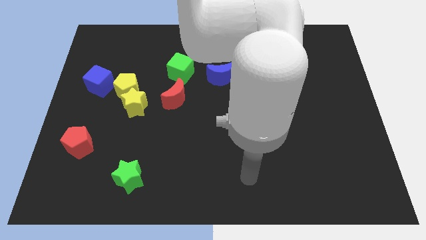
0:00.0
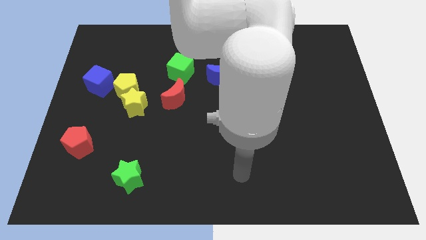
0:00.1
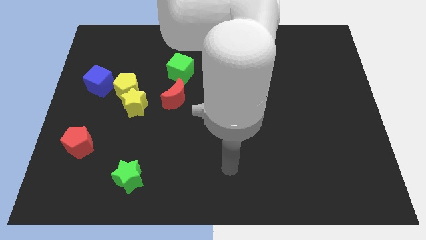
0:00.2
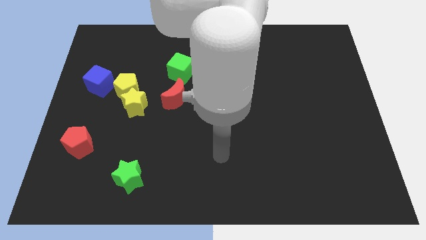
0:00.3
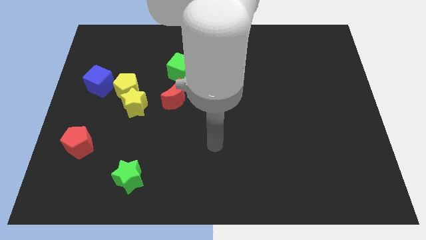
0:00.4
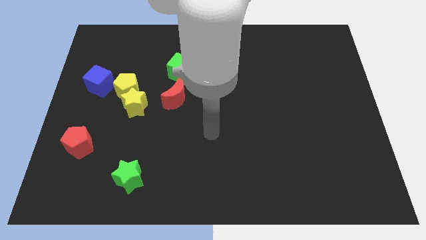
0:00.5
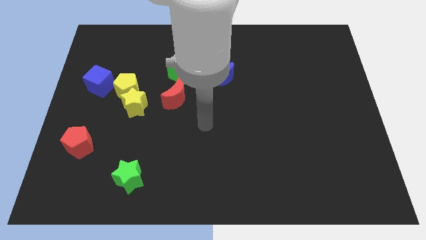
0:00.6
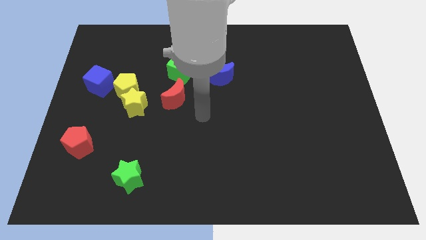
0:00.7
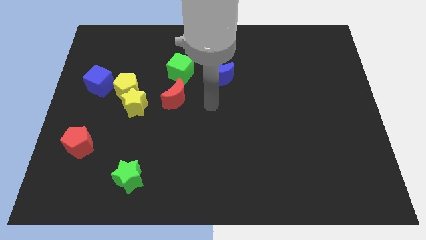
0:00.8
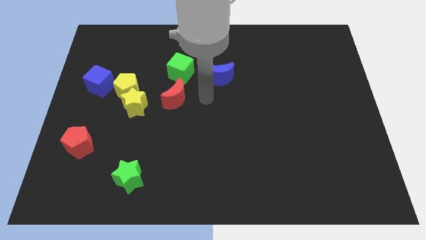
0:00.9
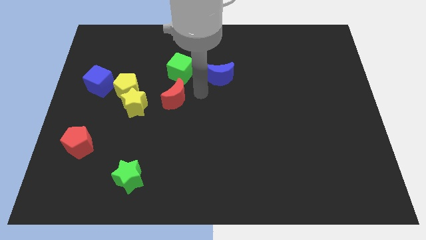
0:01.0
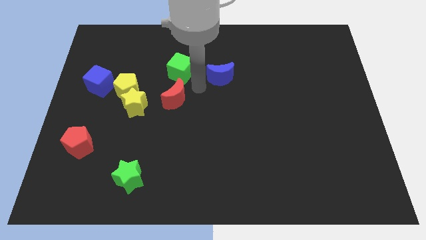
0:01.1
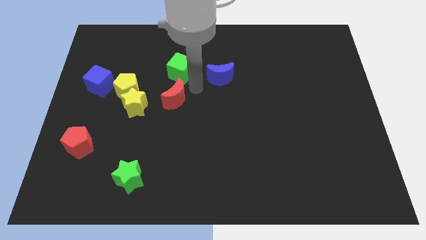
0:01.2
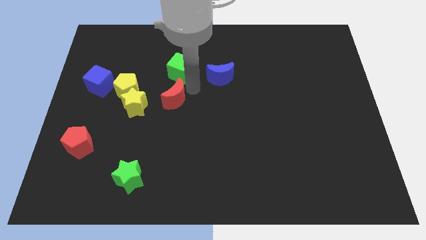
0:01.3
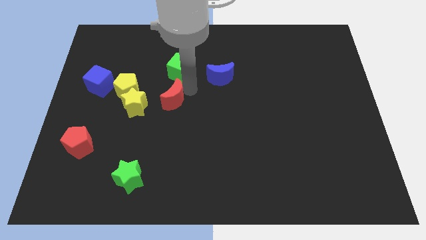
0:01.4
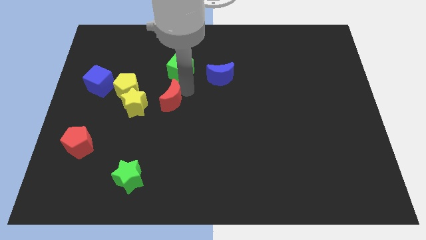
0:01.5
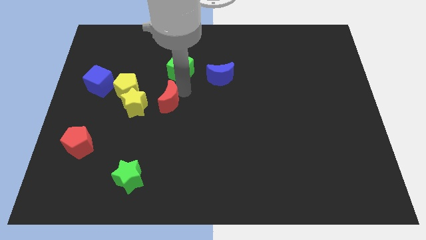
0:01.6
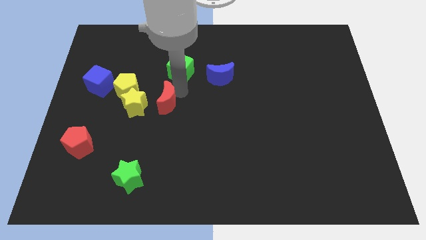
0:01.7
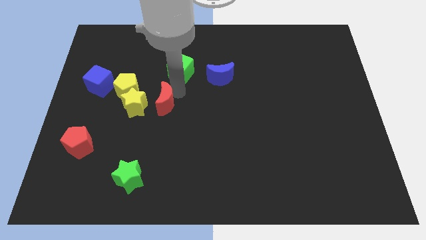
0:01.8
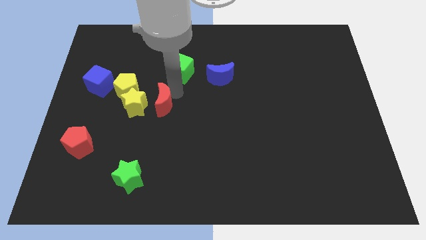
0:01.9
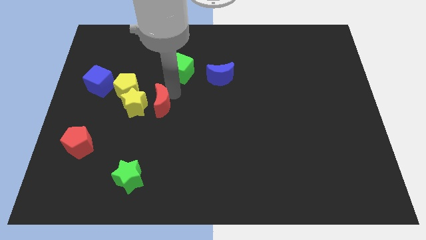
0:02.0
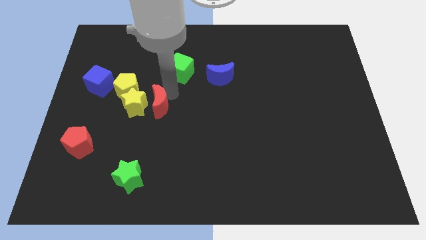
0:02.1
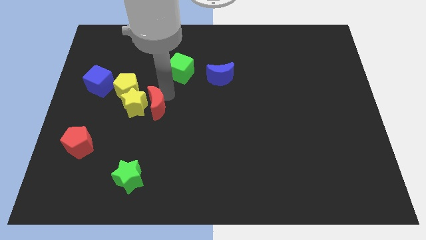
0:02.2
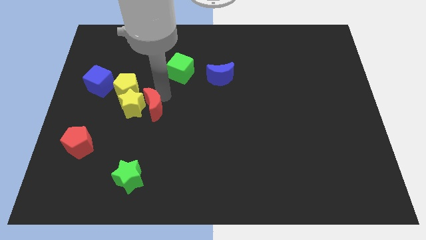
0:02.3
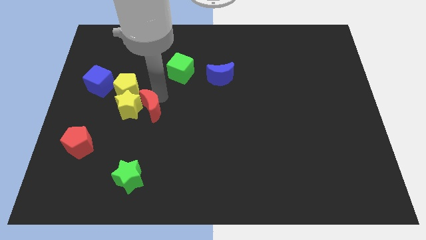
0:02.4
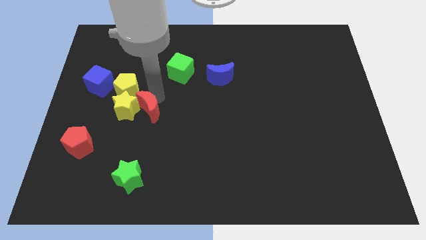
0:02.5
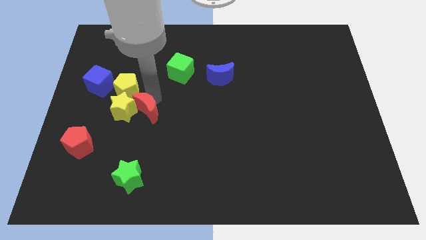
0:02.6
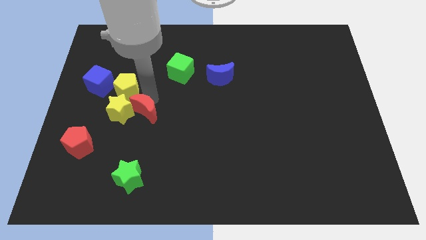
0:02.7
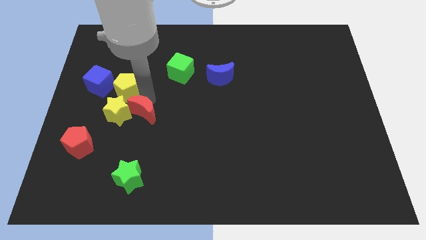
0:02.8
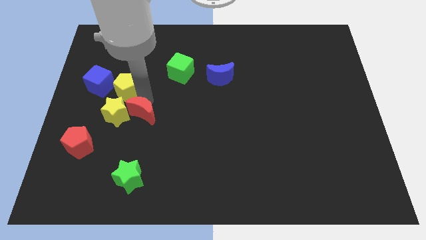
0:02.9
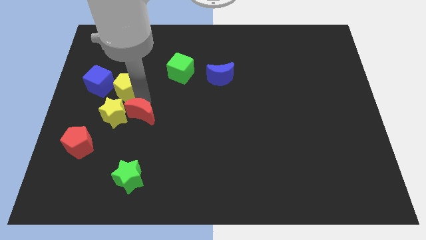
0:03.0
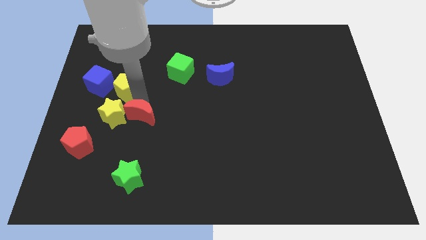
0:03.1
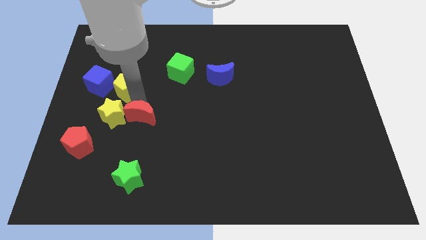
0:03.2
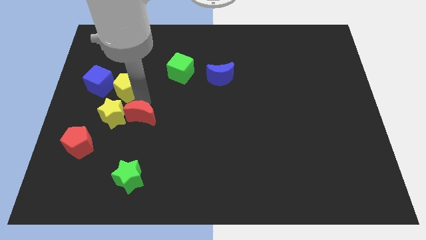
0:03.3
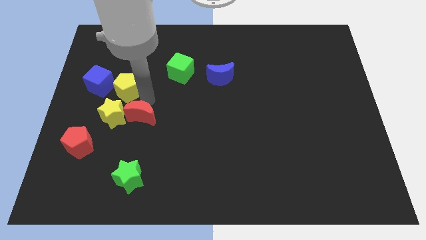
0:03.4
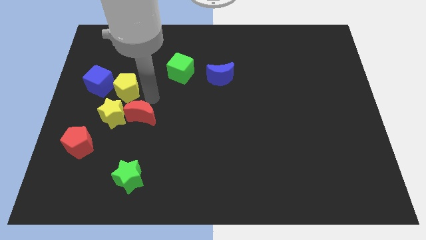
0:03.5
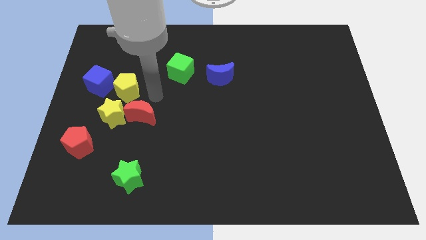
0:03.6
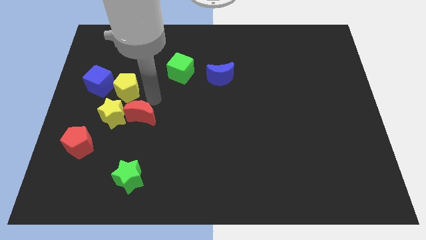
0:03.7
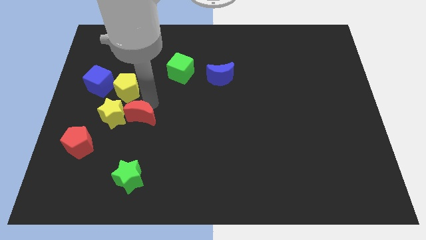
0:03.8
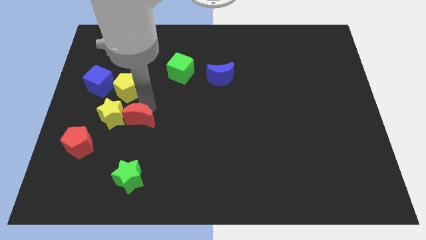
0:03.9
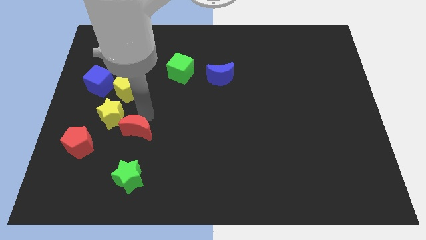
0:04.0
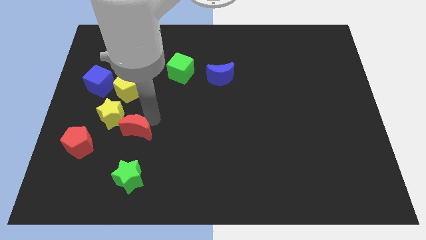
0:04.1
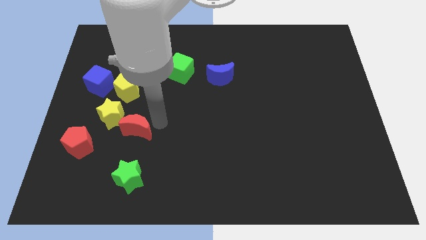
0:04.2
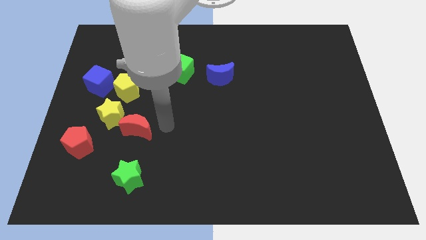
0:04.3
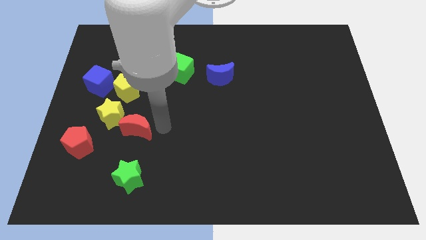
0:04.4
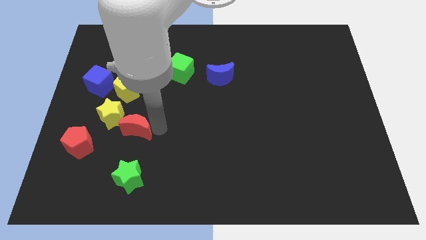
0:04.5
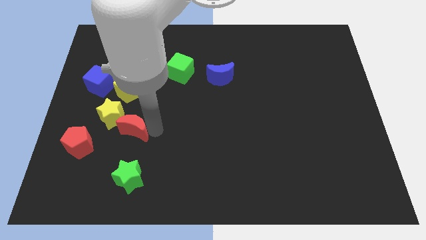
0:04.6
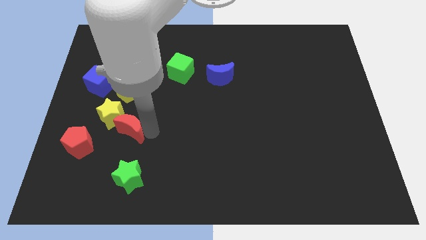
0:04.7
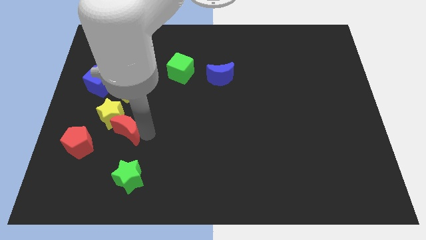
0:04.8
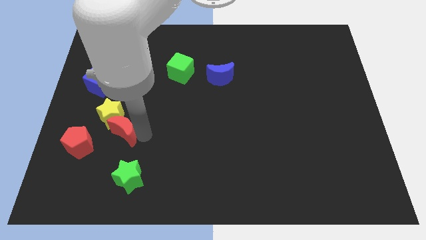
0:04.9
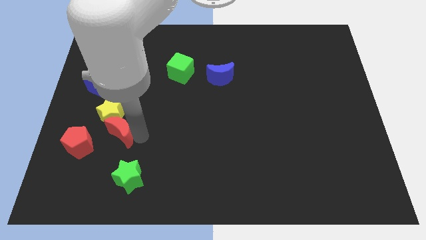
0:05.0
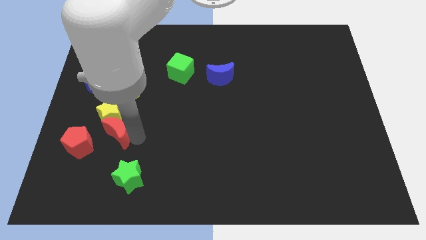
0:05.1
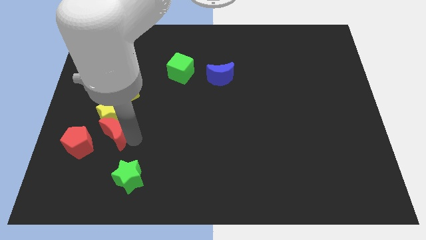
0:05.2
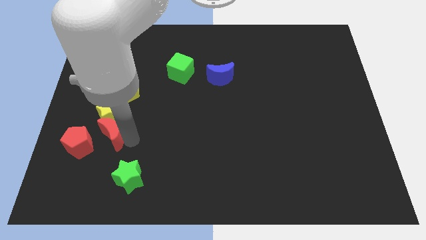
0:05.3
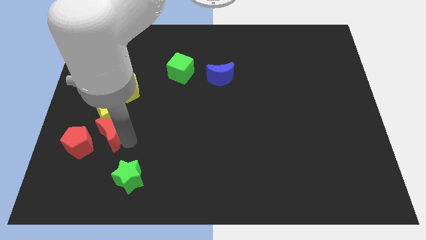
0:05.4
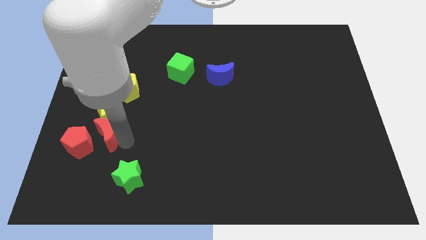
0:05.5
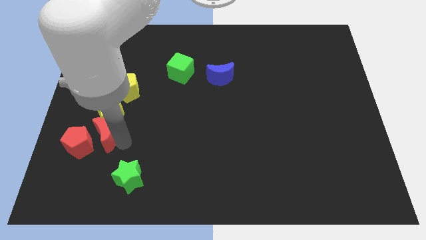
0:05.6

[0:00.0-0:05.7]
move the red moon to the red pentagon

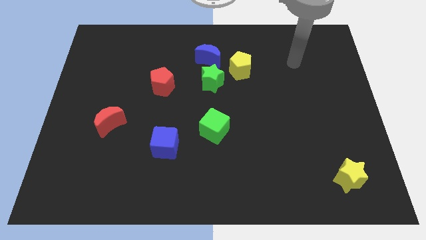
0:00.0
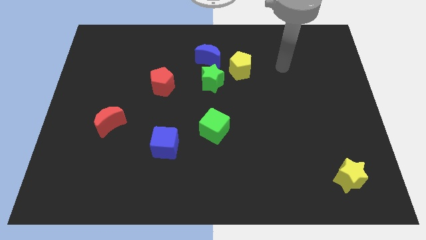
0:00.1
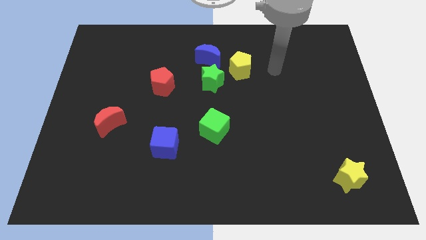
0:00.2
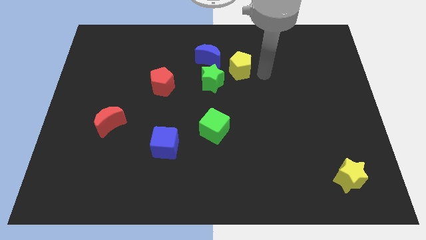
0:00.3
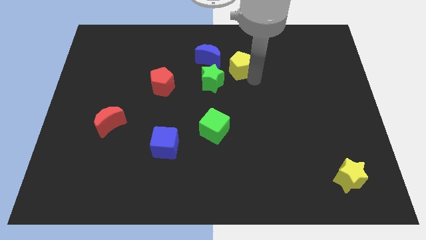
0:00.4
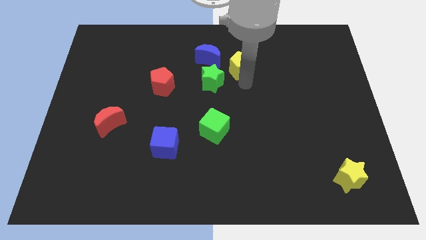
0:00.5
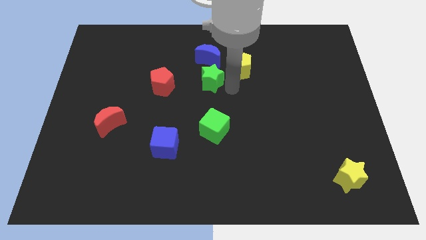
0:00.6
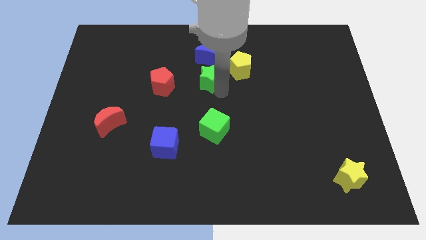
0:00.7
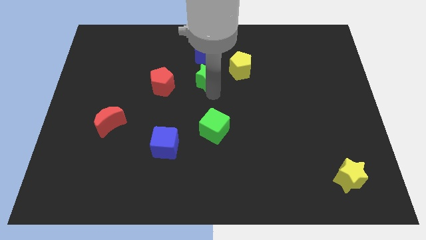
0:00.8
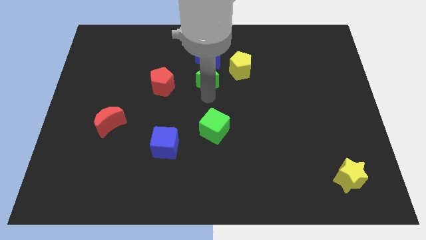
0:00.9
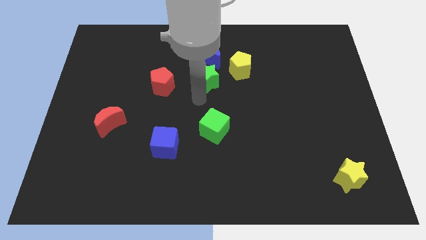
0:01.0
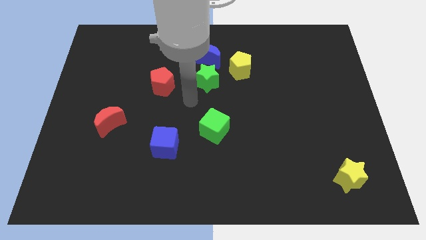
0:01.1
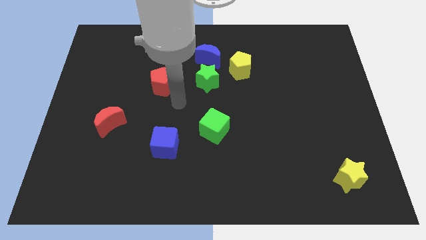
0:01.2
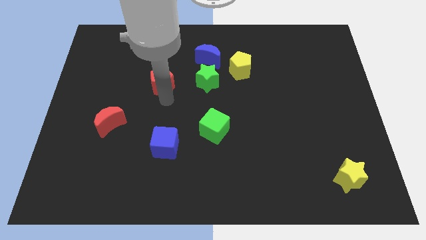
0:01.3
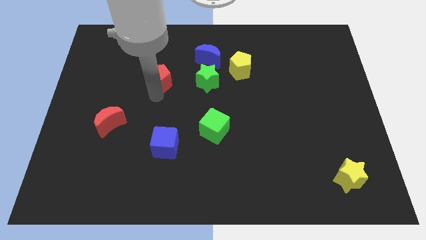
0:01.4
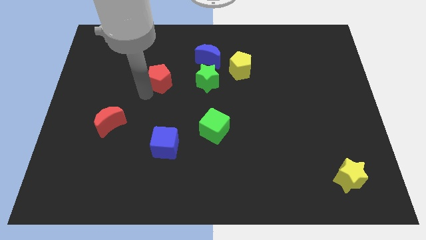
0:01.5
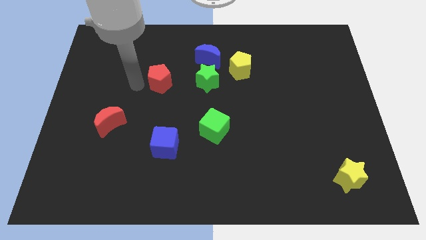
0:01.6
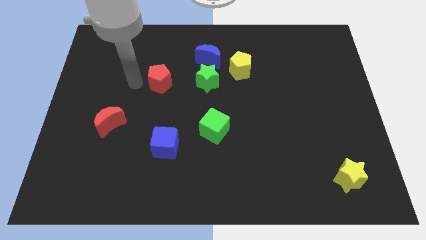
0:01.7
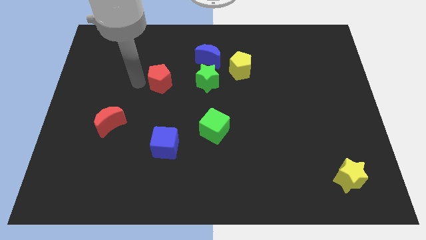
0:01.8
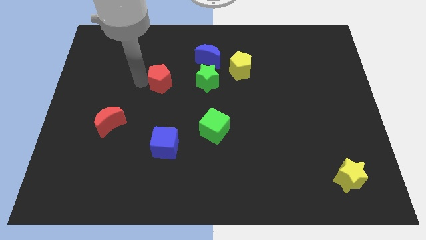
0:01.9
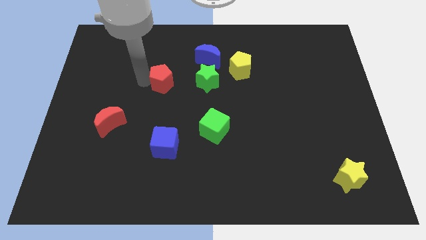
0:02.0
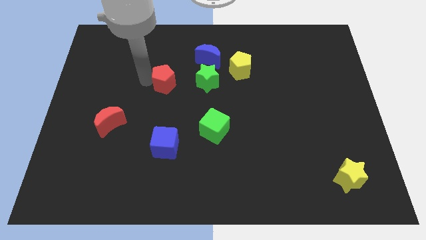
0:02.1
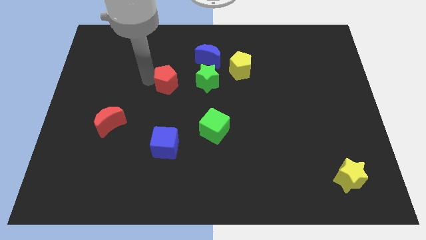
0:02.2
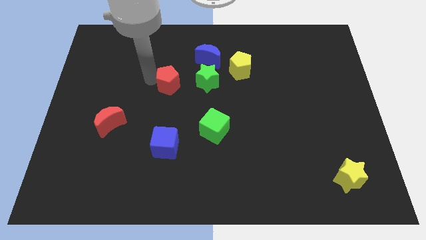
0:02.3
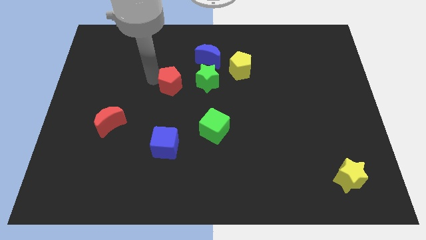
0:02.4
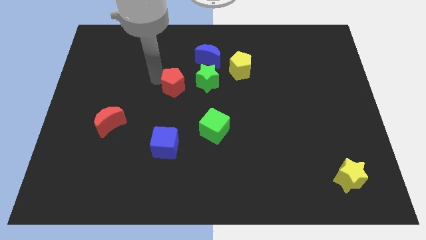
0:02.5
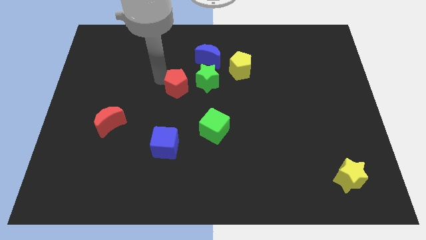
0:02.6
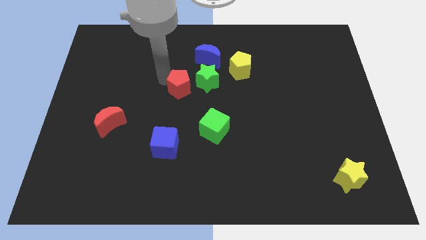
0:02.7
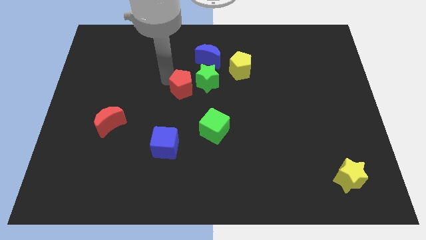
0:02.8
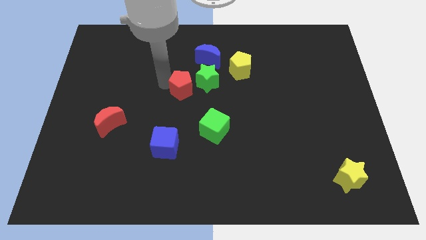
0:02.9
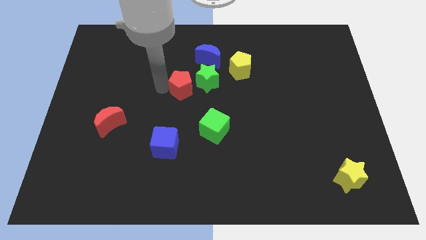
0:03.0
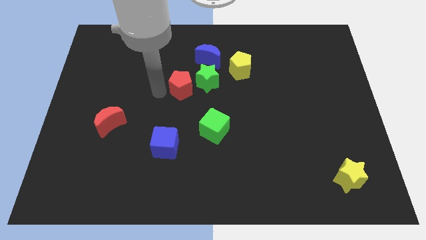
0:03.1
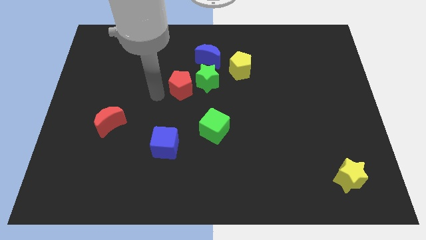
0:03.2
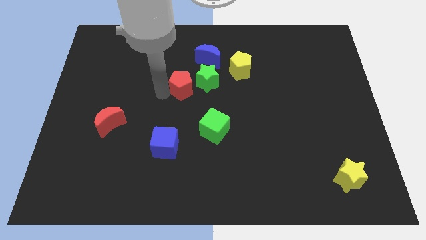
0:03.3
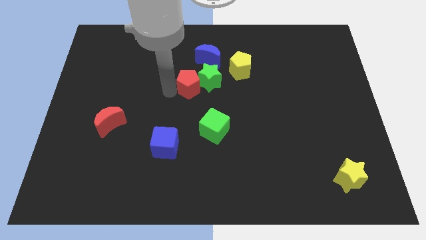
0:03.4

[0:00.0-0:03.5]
move the red pentagon towards the green star
